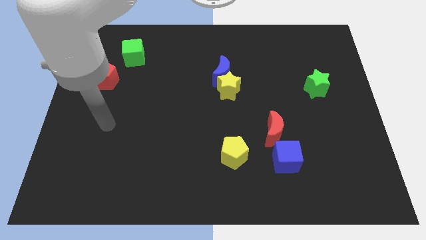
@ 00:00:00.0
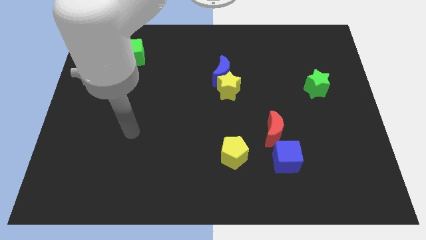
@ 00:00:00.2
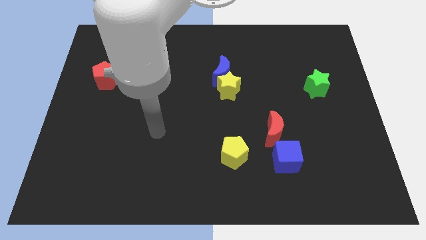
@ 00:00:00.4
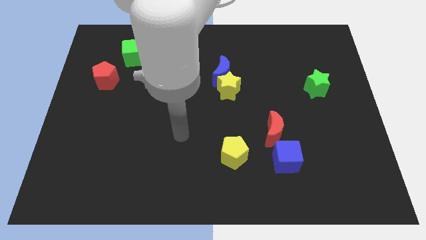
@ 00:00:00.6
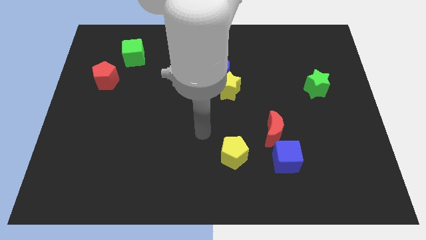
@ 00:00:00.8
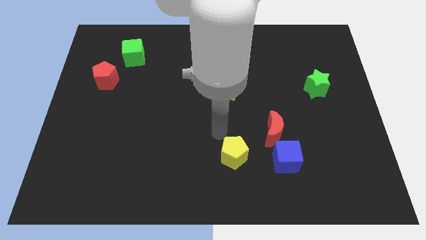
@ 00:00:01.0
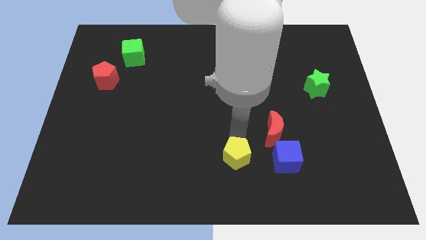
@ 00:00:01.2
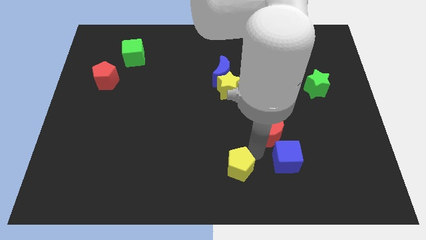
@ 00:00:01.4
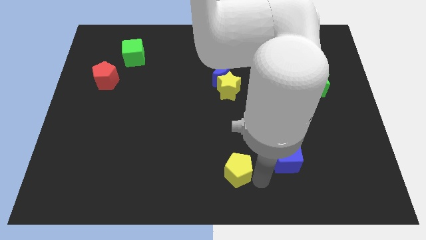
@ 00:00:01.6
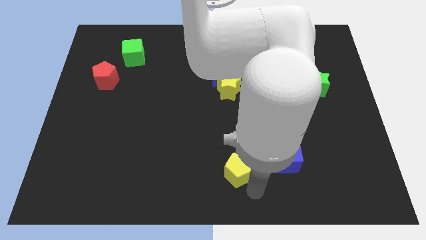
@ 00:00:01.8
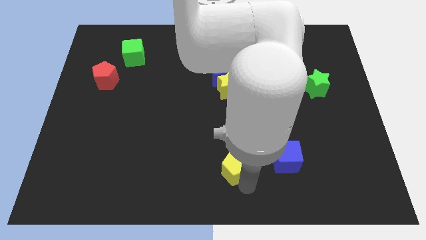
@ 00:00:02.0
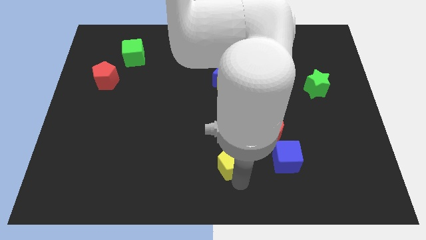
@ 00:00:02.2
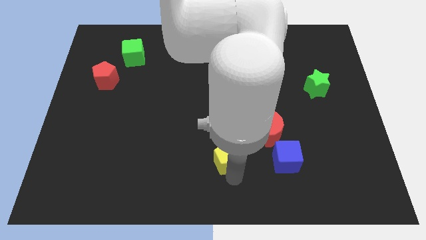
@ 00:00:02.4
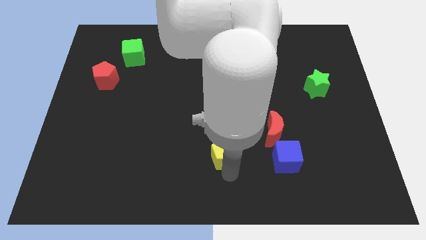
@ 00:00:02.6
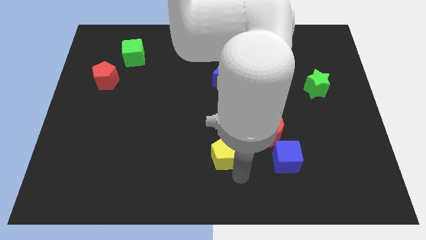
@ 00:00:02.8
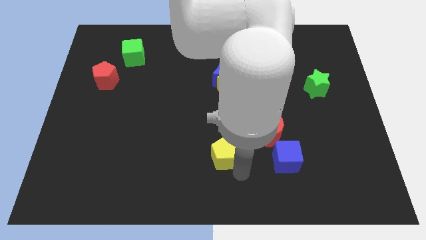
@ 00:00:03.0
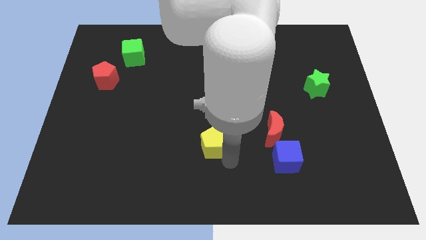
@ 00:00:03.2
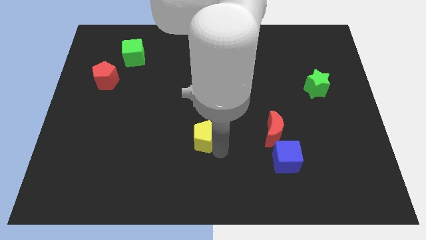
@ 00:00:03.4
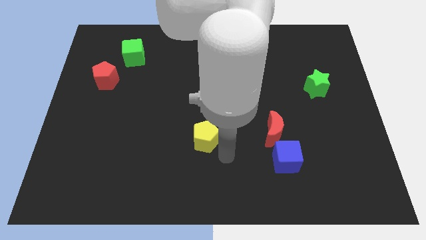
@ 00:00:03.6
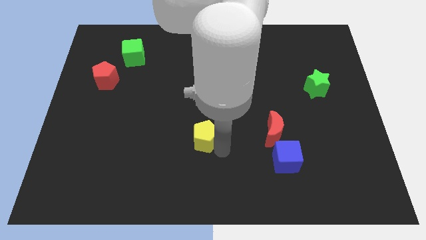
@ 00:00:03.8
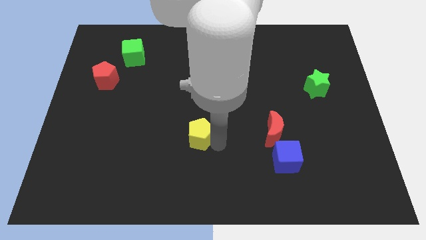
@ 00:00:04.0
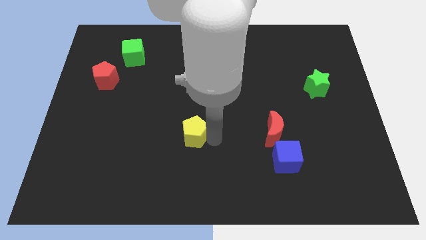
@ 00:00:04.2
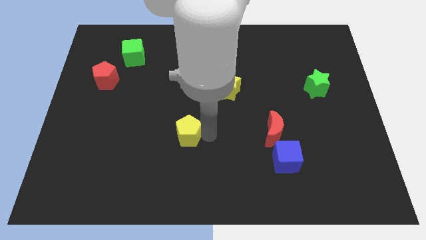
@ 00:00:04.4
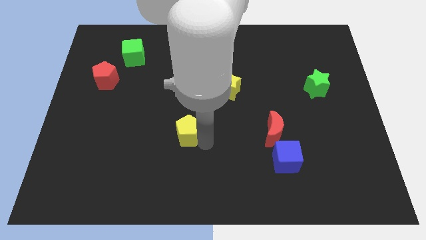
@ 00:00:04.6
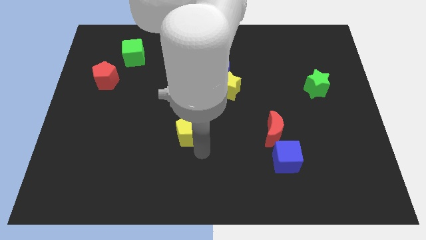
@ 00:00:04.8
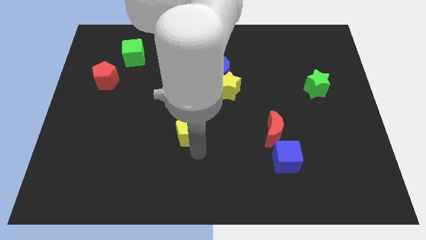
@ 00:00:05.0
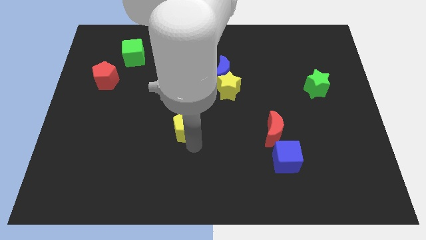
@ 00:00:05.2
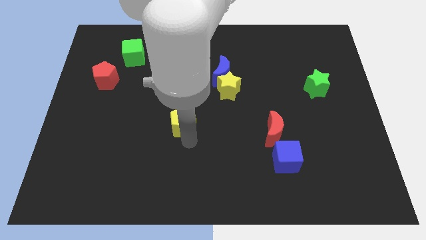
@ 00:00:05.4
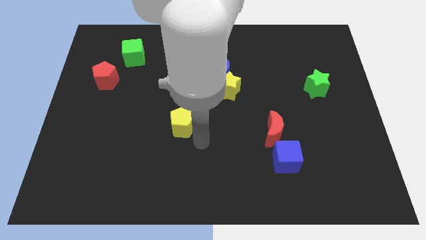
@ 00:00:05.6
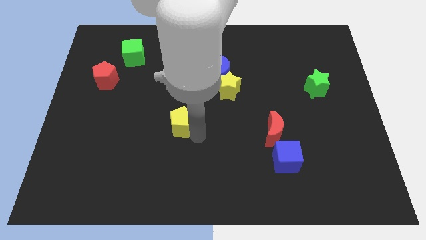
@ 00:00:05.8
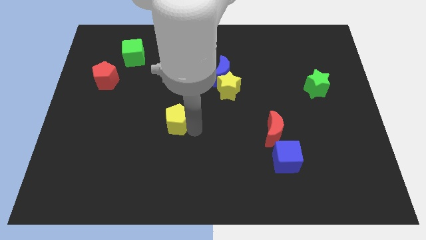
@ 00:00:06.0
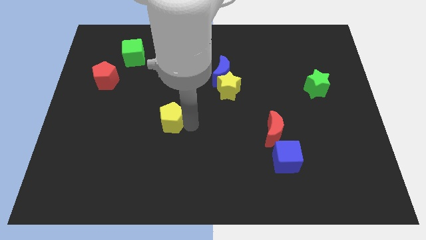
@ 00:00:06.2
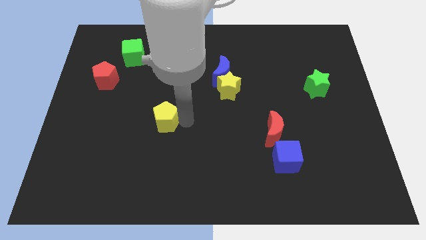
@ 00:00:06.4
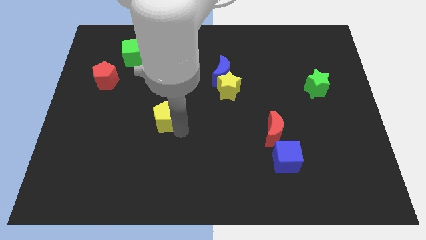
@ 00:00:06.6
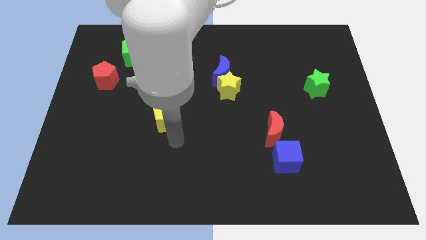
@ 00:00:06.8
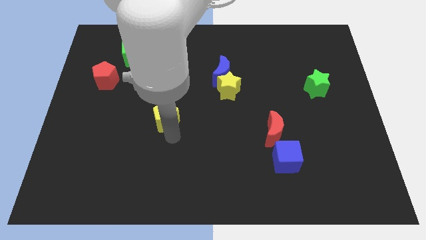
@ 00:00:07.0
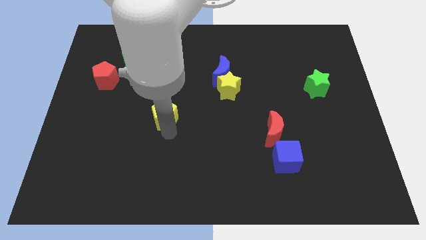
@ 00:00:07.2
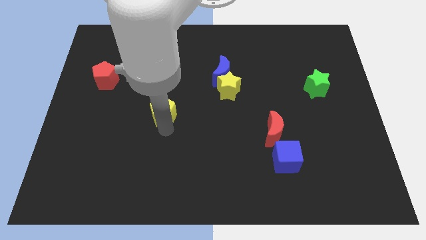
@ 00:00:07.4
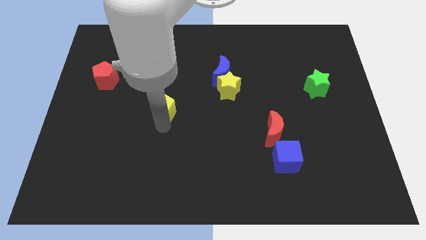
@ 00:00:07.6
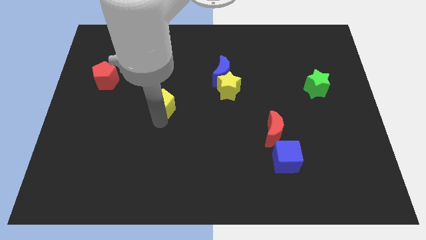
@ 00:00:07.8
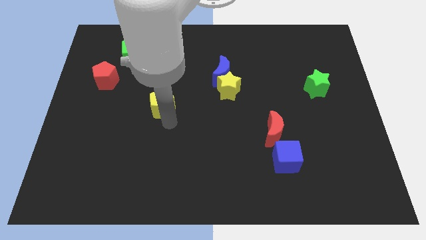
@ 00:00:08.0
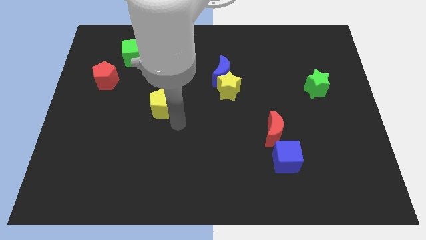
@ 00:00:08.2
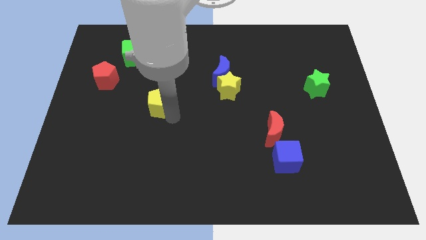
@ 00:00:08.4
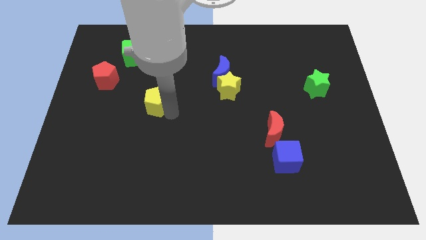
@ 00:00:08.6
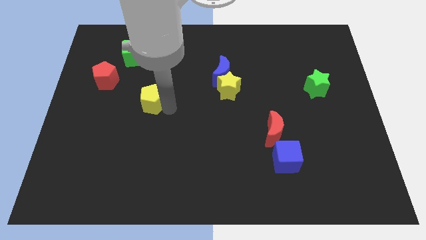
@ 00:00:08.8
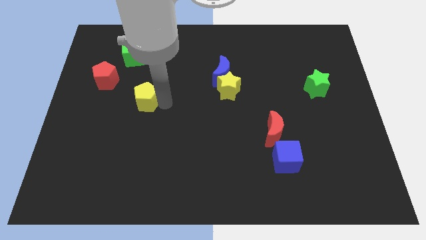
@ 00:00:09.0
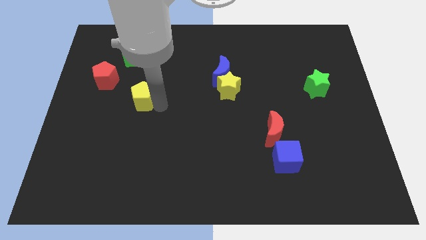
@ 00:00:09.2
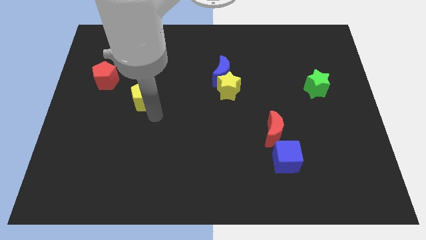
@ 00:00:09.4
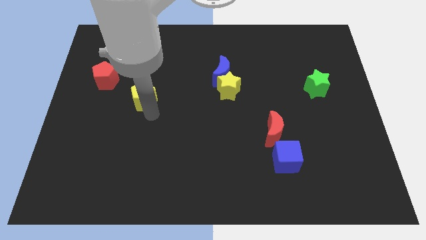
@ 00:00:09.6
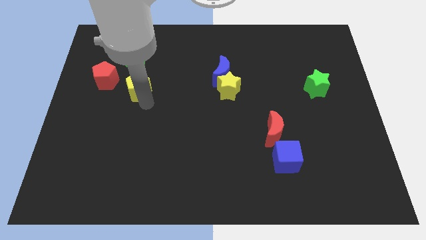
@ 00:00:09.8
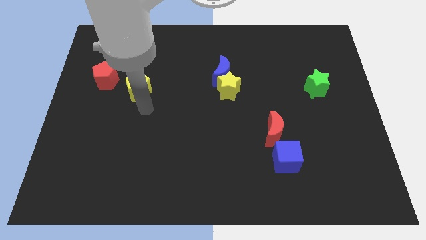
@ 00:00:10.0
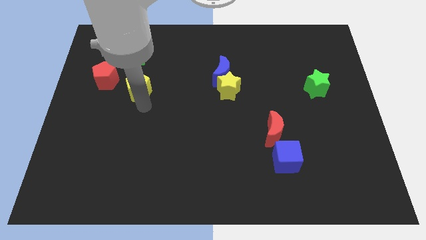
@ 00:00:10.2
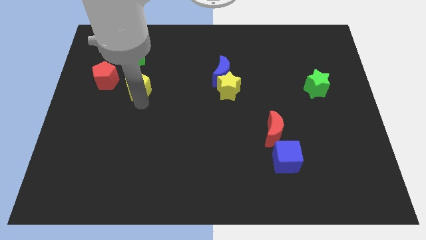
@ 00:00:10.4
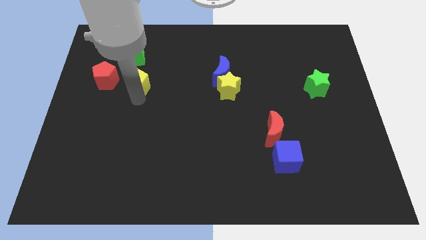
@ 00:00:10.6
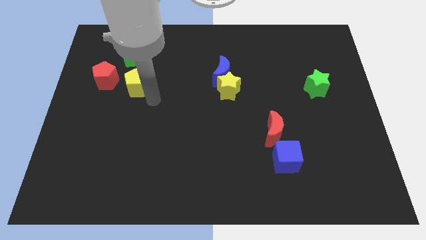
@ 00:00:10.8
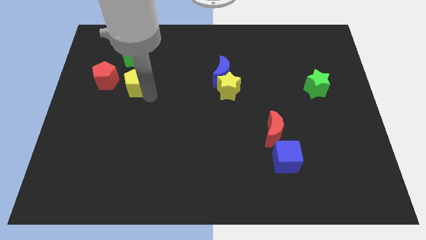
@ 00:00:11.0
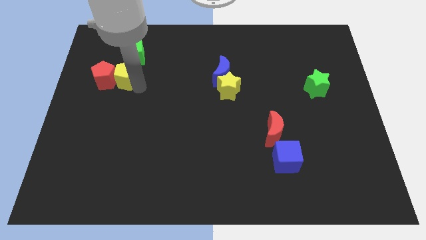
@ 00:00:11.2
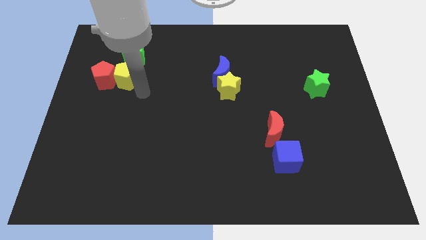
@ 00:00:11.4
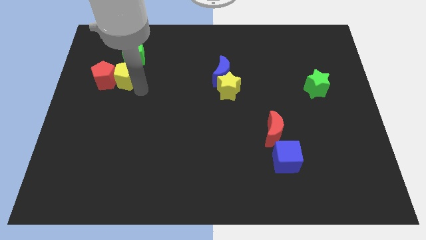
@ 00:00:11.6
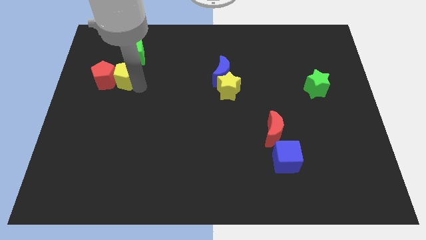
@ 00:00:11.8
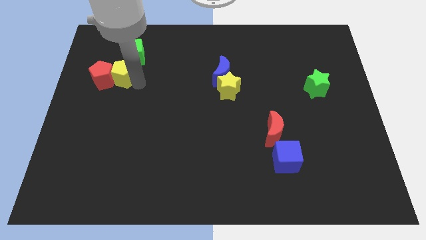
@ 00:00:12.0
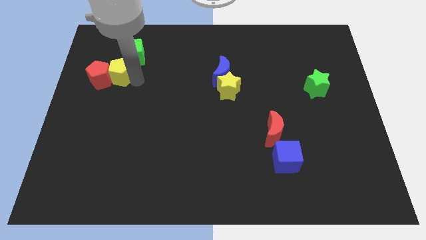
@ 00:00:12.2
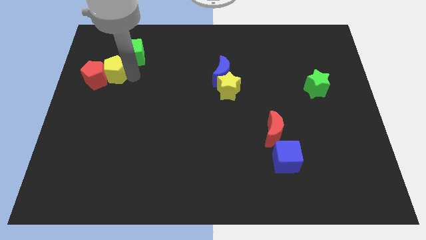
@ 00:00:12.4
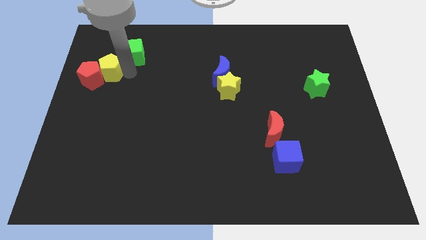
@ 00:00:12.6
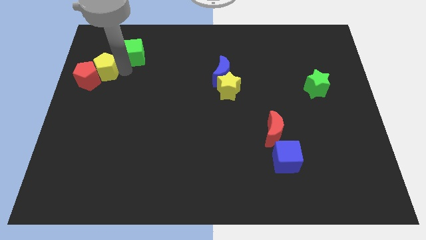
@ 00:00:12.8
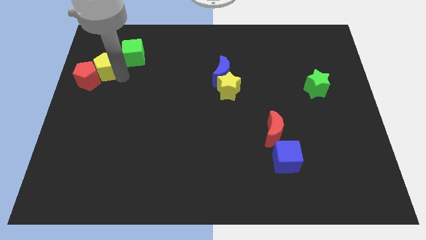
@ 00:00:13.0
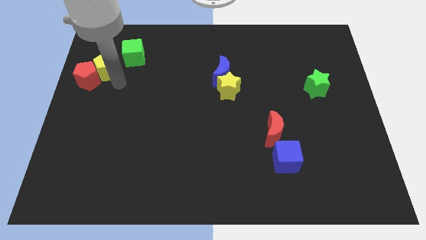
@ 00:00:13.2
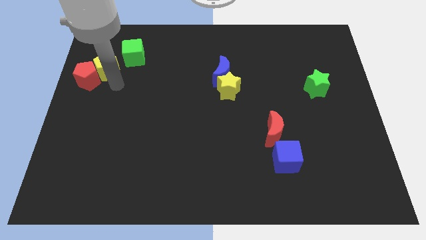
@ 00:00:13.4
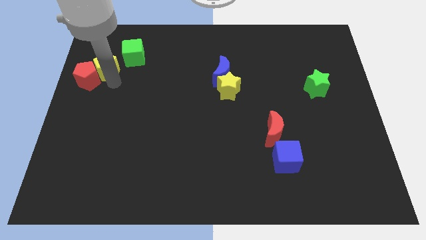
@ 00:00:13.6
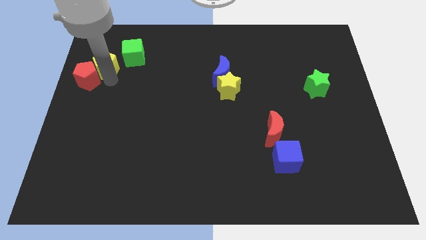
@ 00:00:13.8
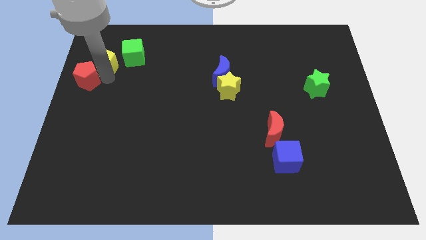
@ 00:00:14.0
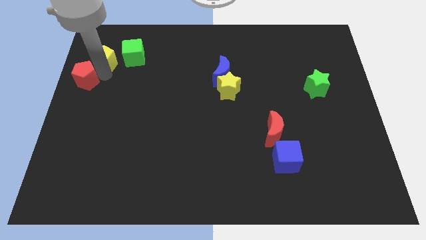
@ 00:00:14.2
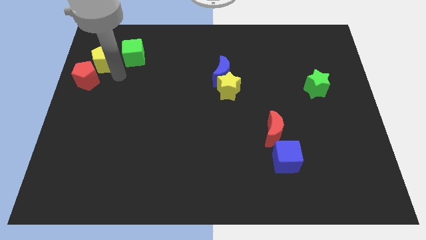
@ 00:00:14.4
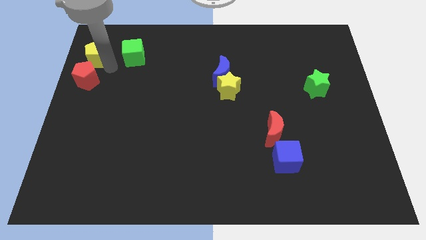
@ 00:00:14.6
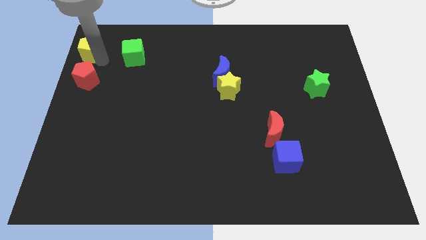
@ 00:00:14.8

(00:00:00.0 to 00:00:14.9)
put the yellow pentagon to the upper left corner
